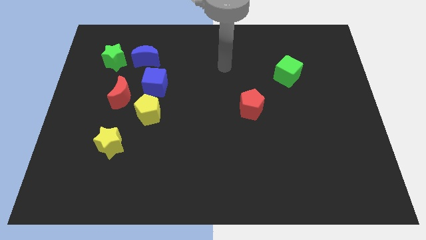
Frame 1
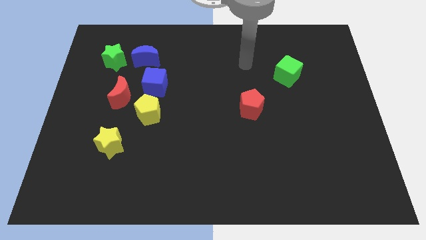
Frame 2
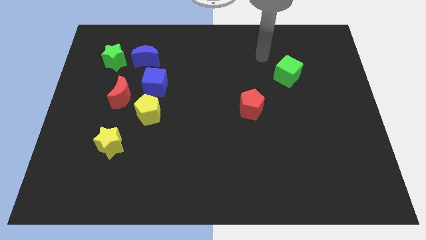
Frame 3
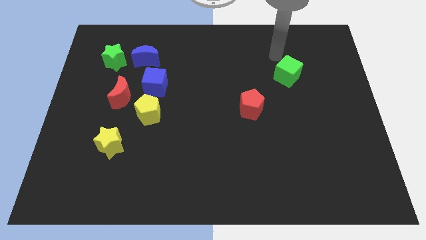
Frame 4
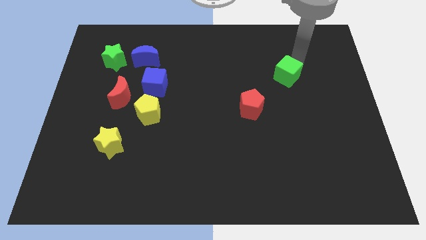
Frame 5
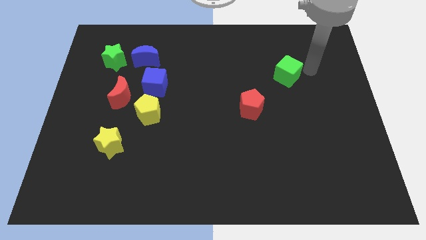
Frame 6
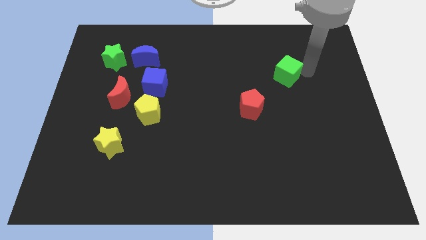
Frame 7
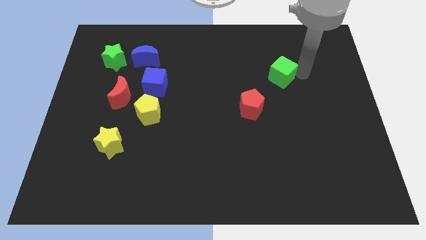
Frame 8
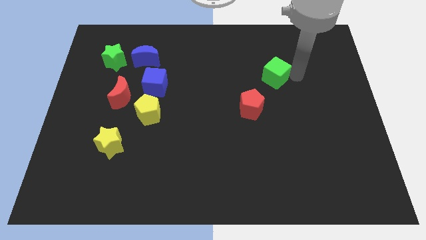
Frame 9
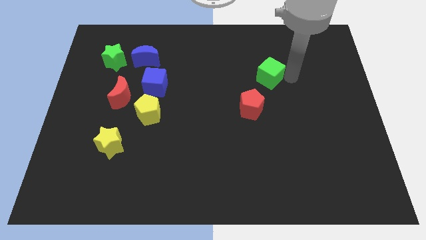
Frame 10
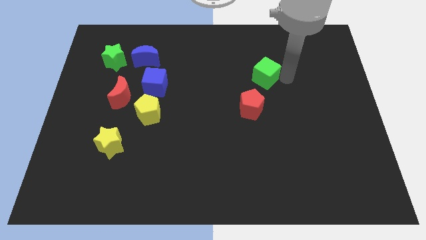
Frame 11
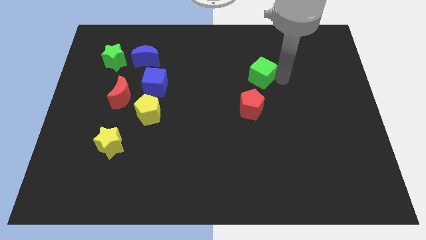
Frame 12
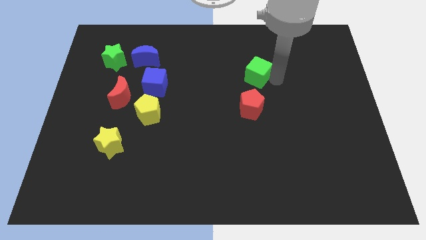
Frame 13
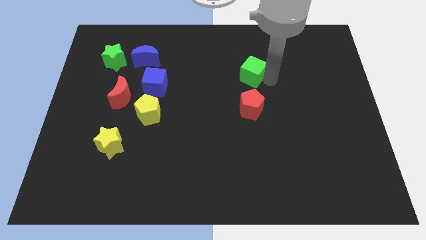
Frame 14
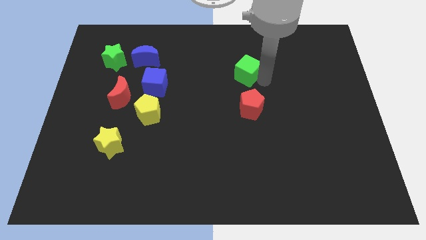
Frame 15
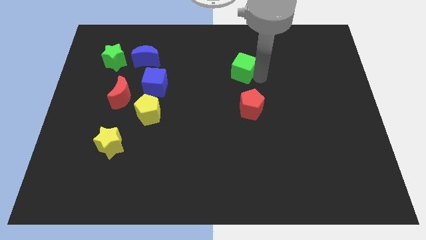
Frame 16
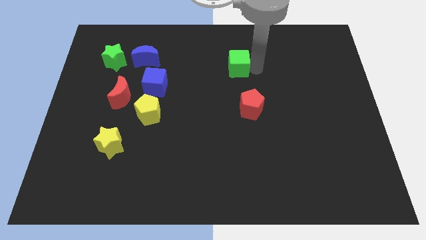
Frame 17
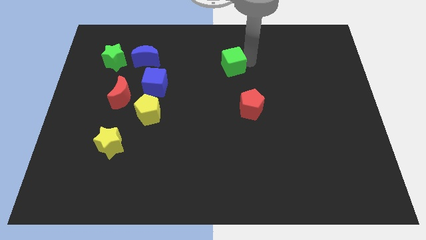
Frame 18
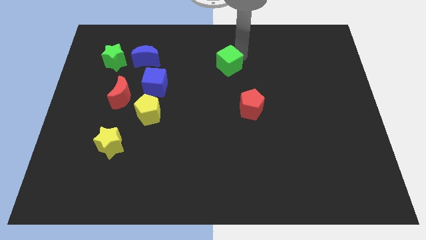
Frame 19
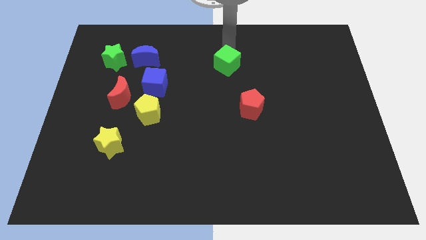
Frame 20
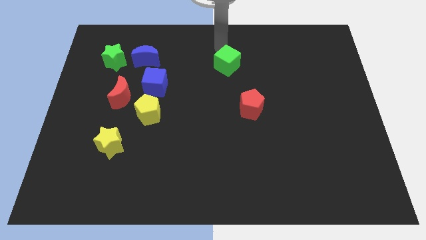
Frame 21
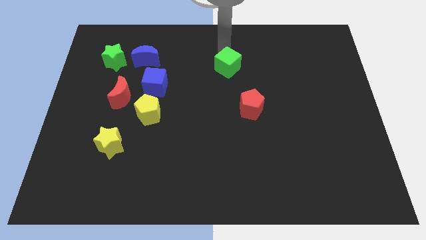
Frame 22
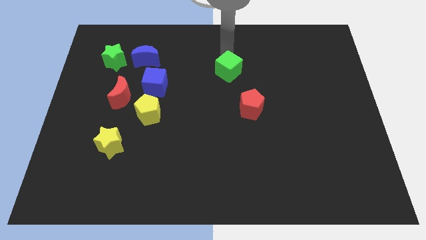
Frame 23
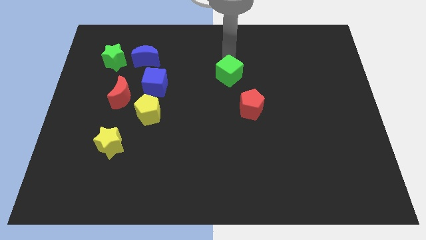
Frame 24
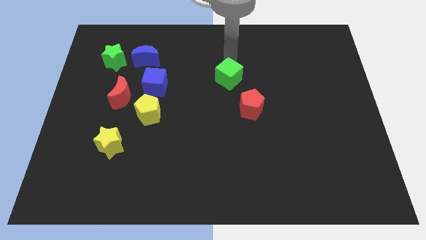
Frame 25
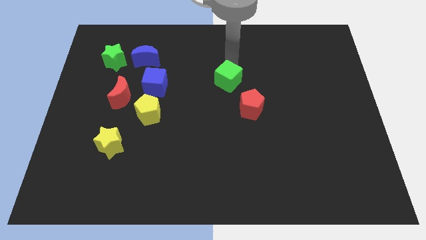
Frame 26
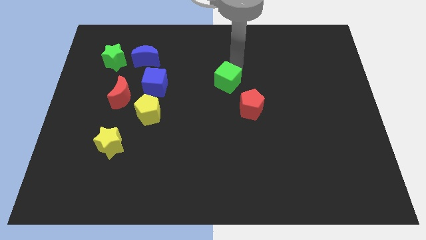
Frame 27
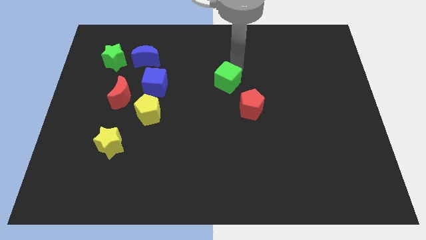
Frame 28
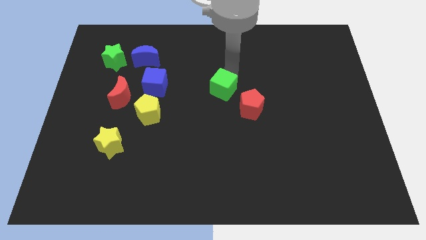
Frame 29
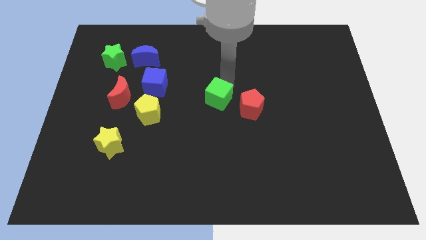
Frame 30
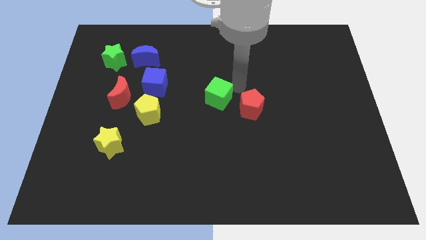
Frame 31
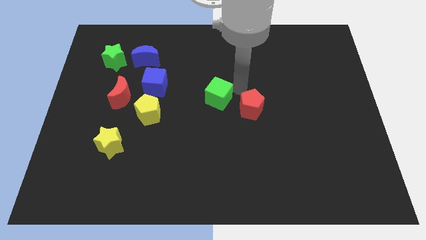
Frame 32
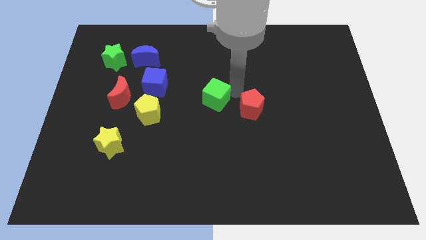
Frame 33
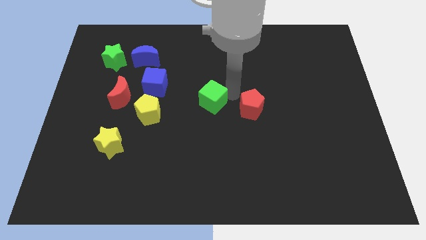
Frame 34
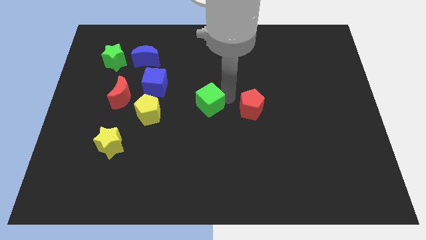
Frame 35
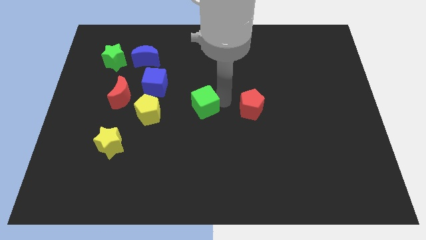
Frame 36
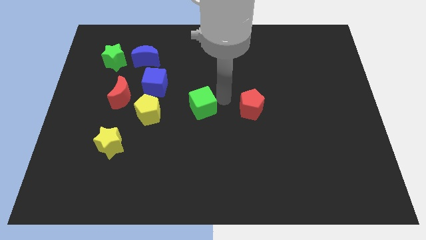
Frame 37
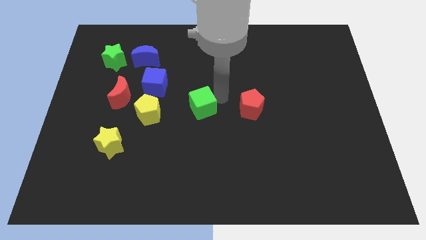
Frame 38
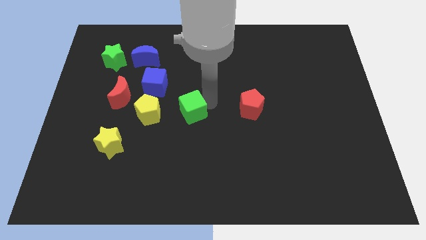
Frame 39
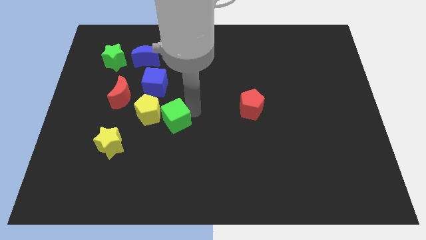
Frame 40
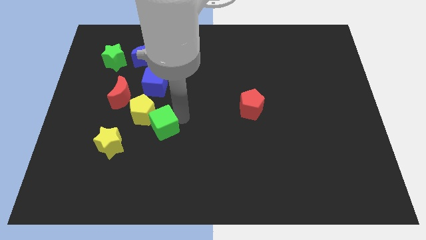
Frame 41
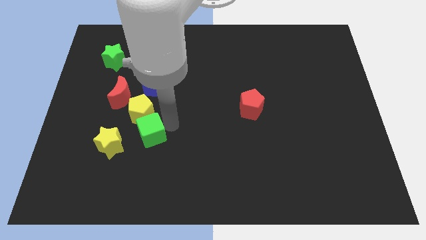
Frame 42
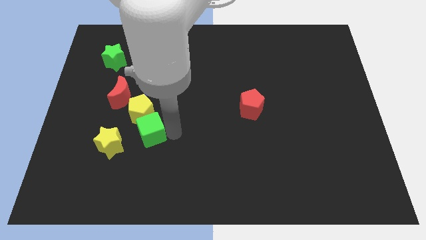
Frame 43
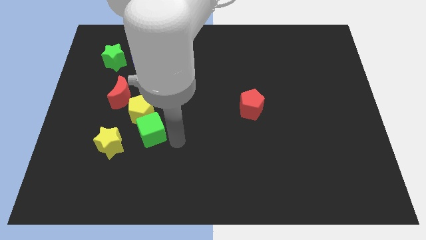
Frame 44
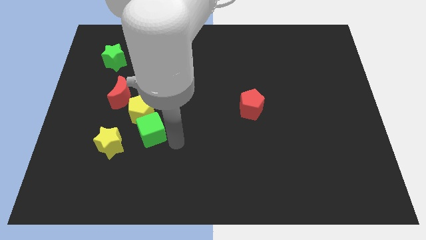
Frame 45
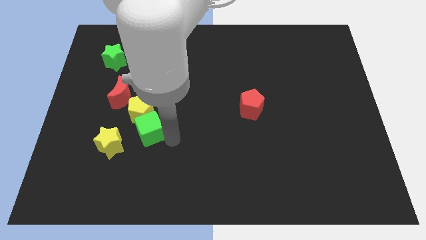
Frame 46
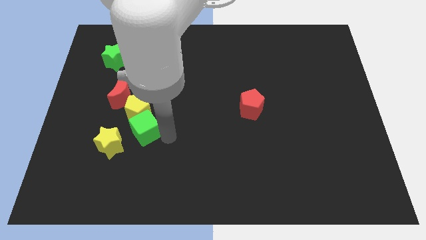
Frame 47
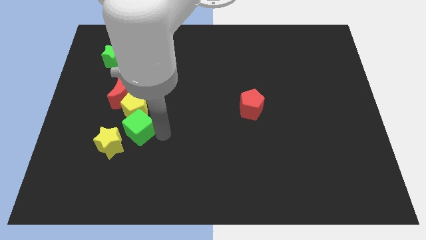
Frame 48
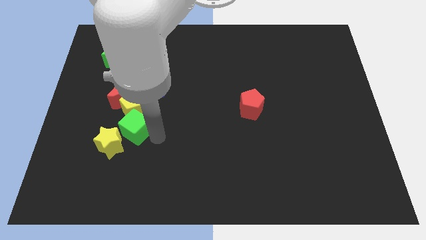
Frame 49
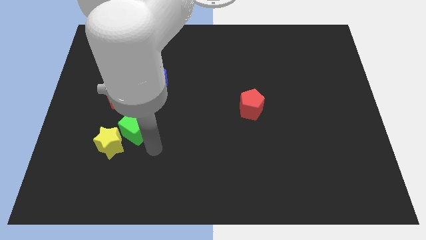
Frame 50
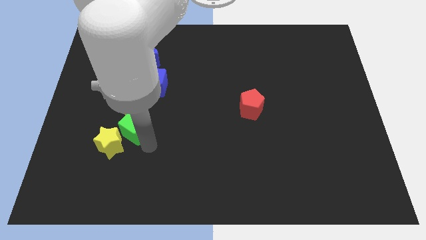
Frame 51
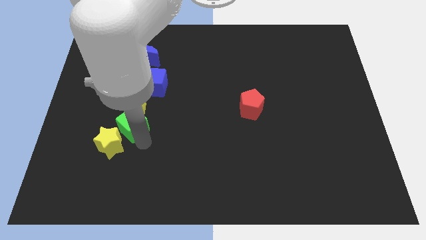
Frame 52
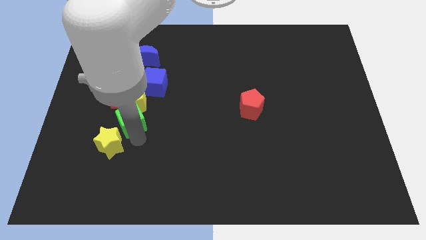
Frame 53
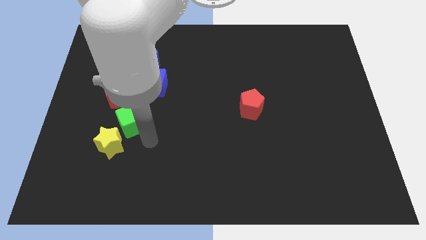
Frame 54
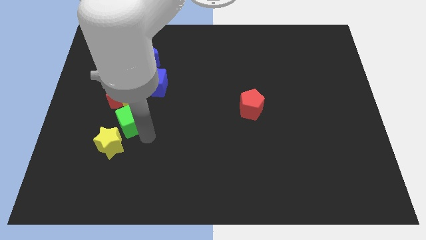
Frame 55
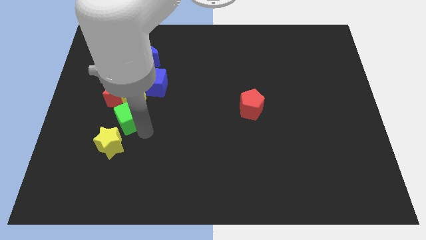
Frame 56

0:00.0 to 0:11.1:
slide the green cube to the bottom left side of the blue cube
